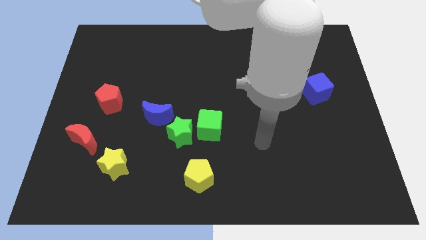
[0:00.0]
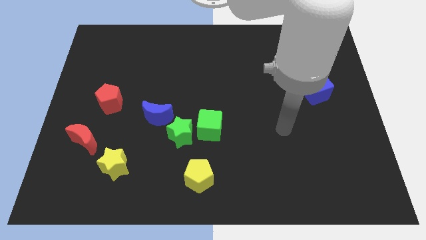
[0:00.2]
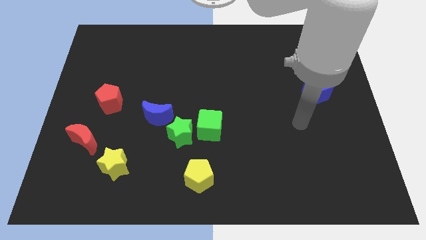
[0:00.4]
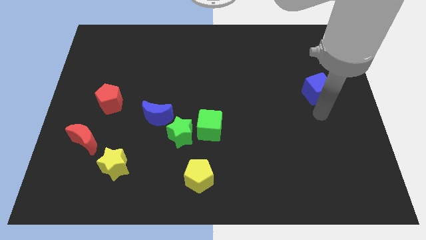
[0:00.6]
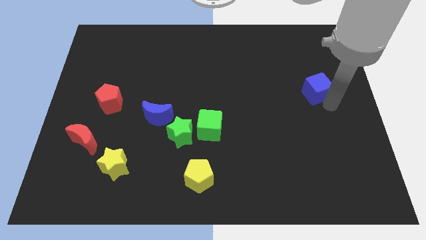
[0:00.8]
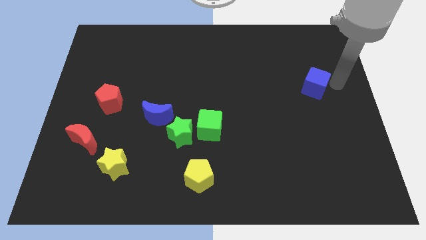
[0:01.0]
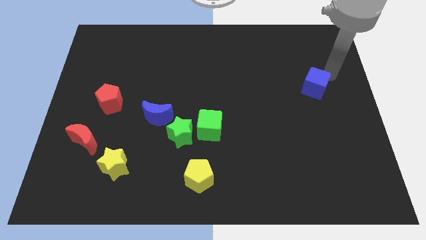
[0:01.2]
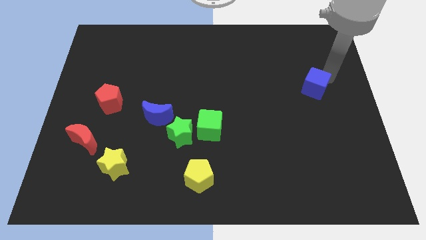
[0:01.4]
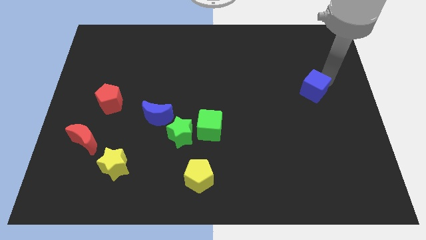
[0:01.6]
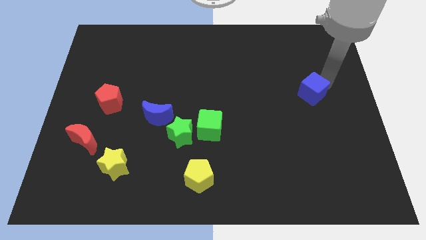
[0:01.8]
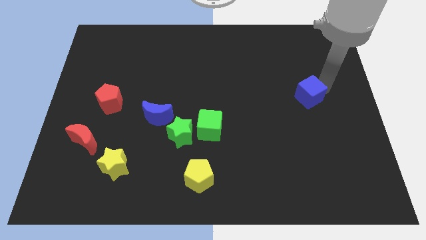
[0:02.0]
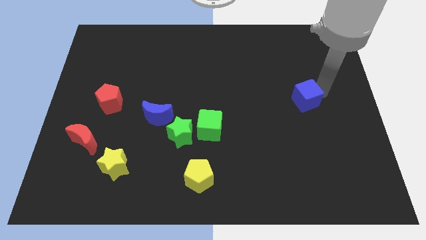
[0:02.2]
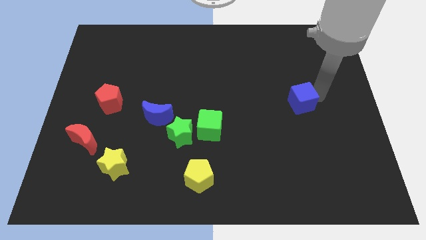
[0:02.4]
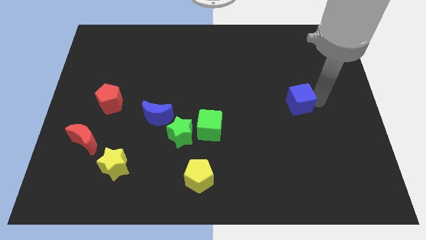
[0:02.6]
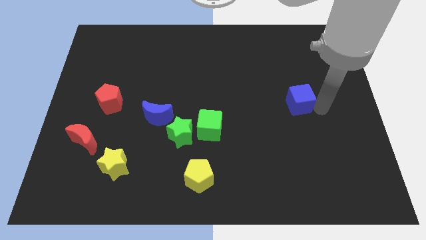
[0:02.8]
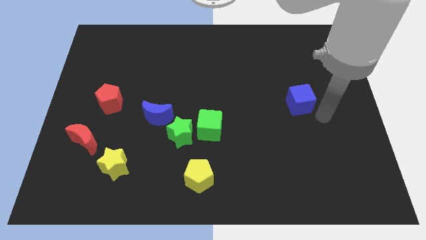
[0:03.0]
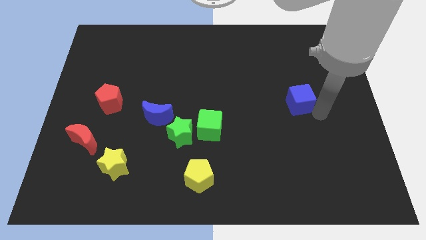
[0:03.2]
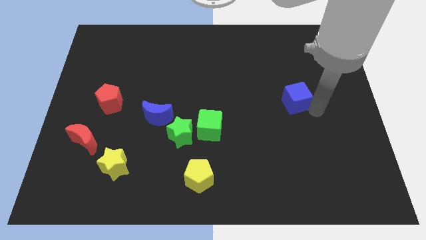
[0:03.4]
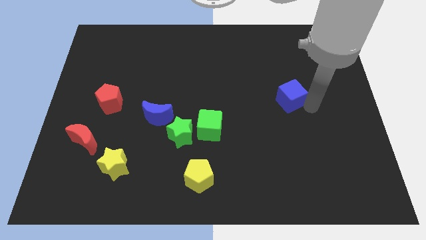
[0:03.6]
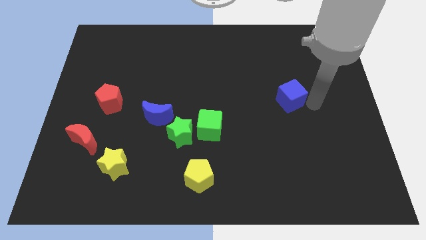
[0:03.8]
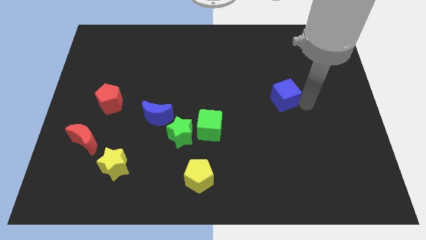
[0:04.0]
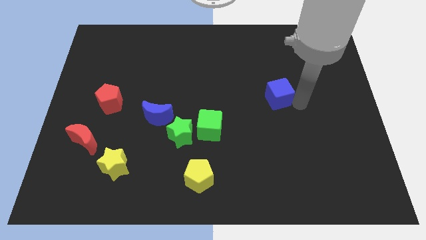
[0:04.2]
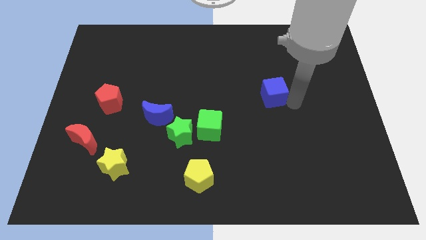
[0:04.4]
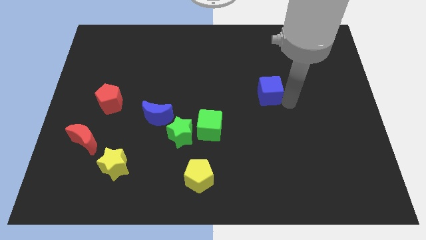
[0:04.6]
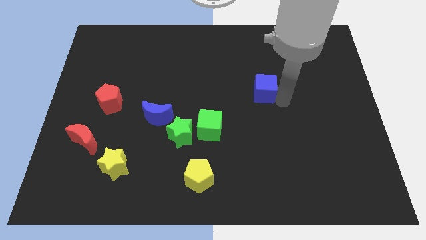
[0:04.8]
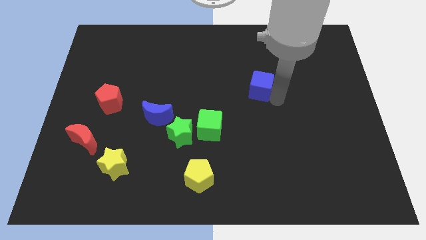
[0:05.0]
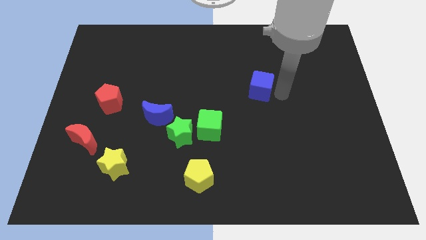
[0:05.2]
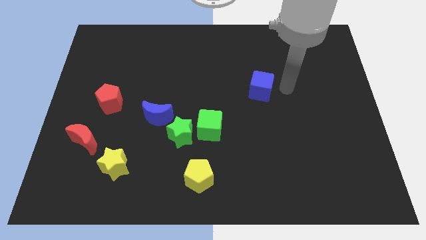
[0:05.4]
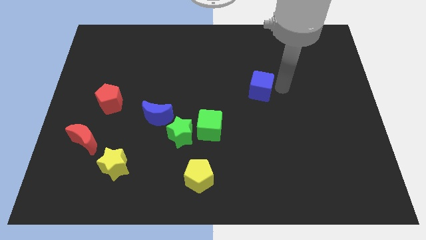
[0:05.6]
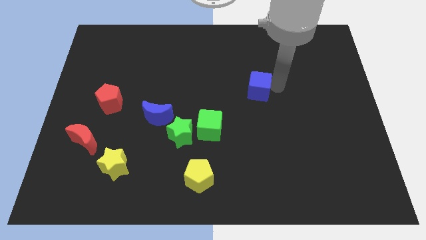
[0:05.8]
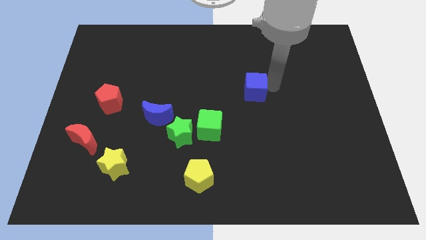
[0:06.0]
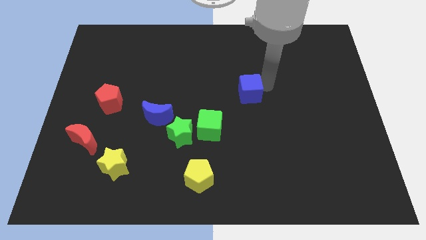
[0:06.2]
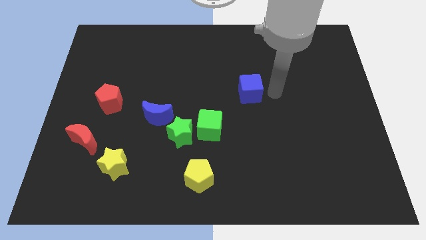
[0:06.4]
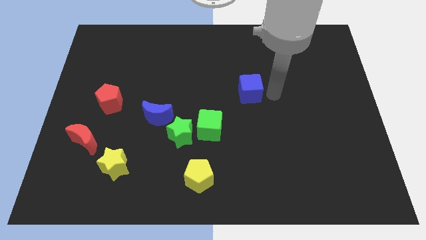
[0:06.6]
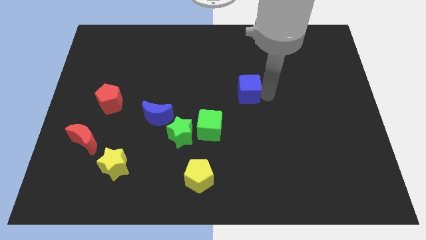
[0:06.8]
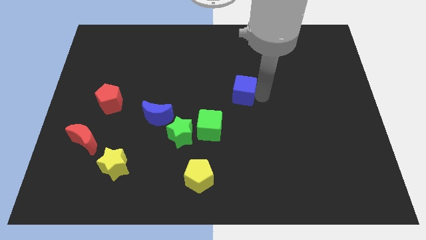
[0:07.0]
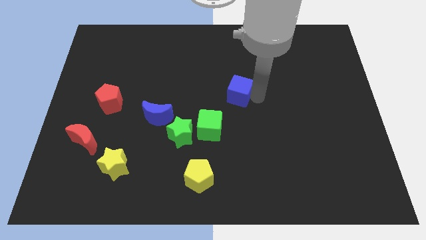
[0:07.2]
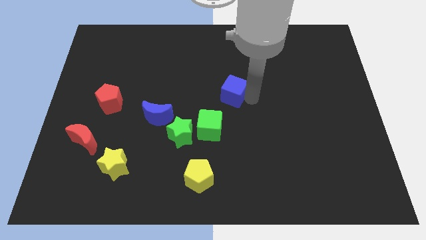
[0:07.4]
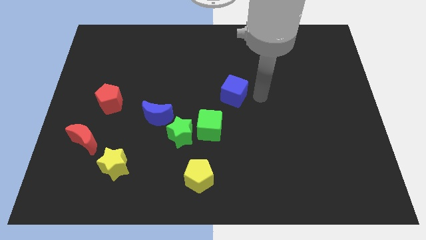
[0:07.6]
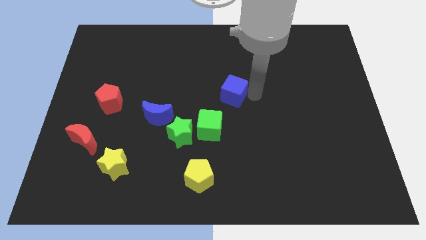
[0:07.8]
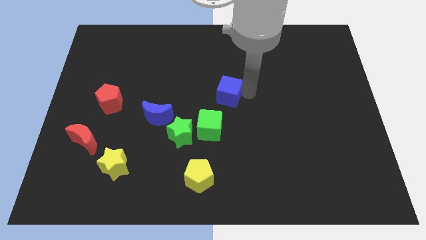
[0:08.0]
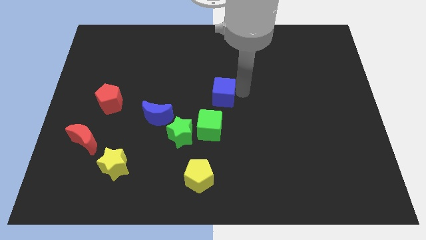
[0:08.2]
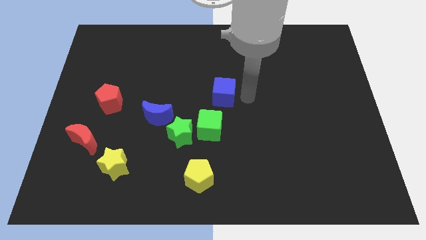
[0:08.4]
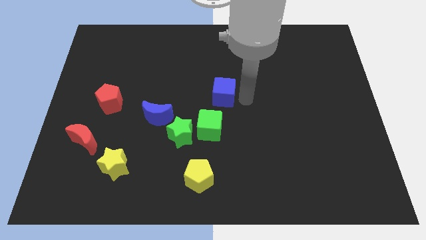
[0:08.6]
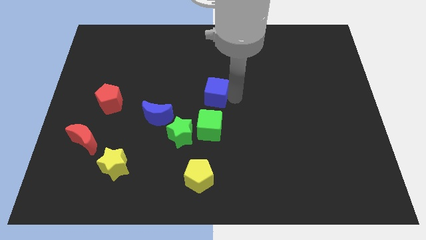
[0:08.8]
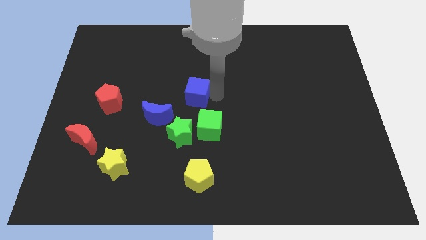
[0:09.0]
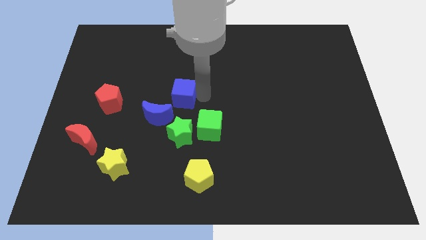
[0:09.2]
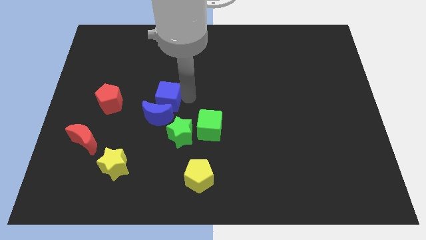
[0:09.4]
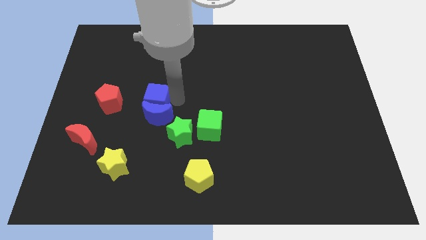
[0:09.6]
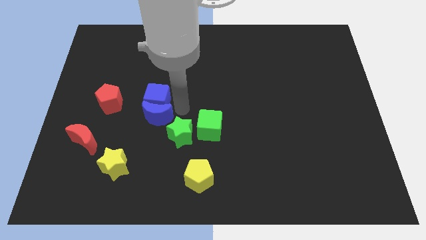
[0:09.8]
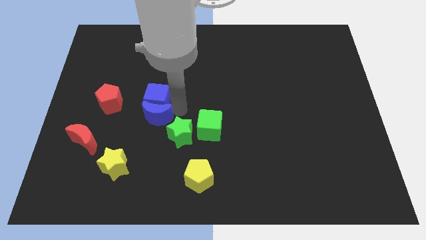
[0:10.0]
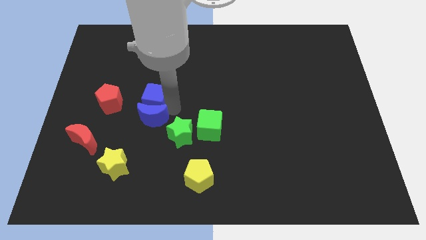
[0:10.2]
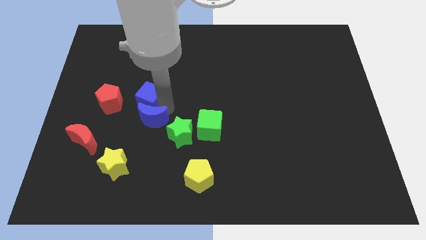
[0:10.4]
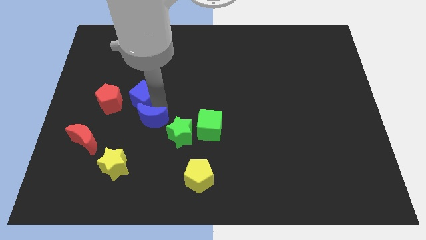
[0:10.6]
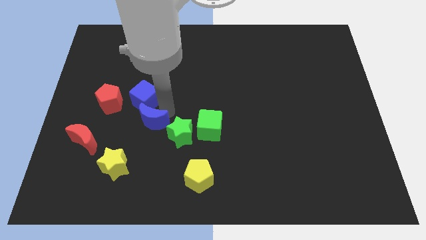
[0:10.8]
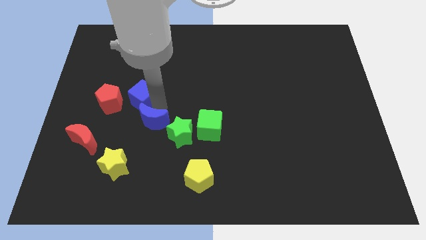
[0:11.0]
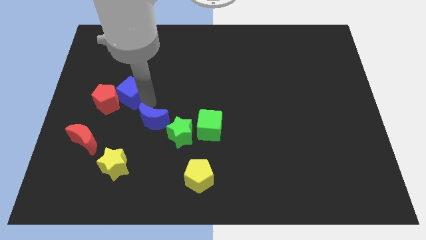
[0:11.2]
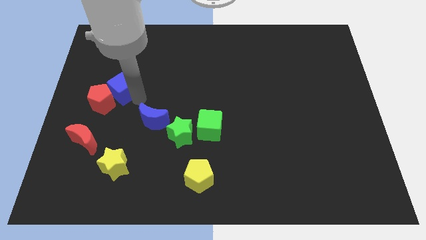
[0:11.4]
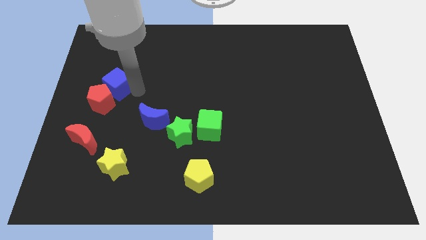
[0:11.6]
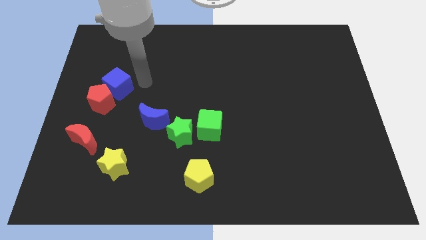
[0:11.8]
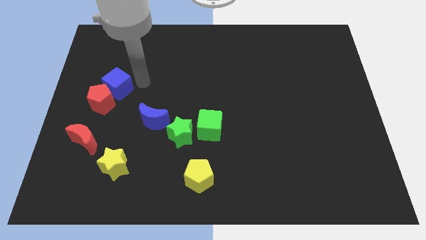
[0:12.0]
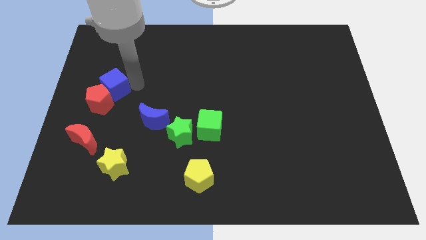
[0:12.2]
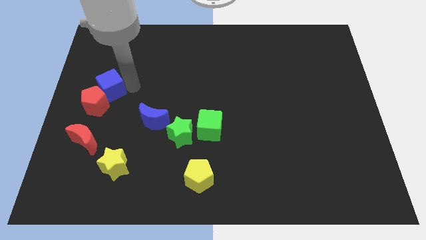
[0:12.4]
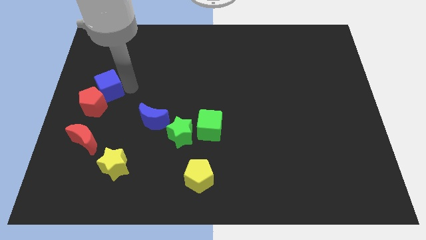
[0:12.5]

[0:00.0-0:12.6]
put the blue cube to the left side of the board
